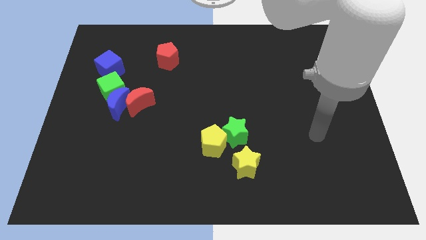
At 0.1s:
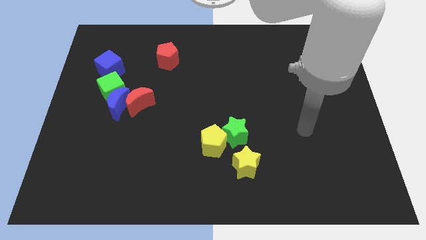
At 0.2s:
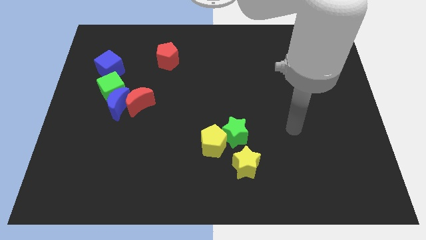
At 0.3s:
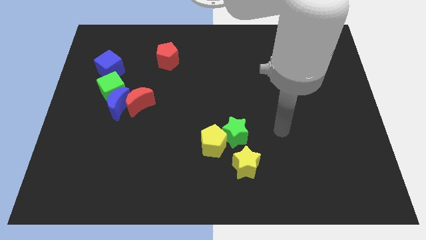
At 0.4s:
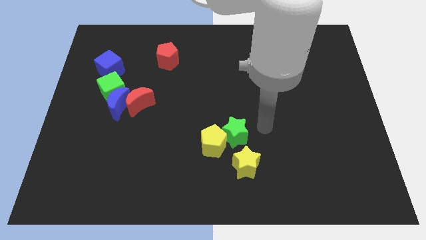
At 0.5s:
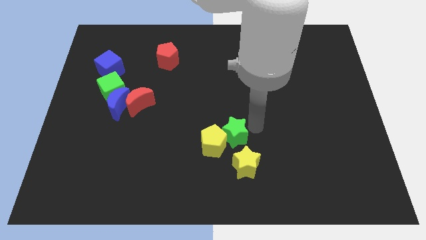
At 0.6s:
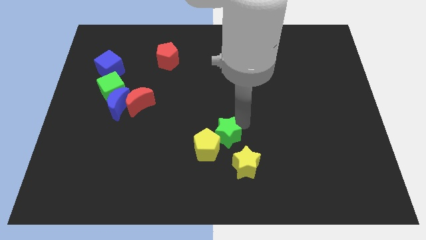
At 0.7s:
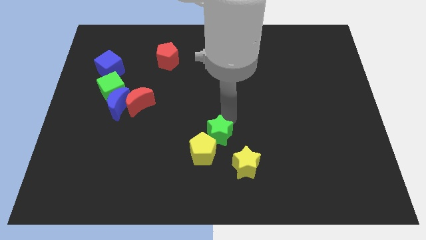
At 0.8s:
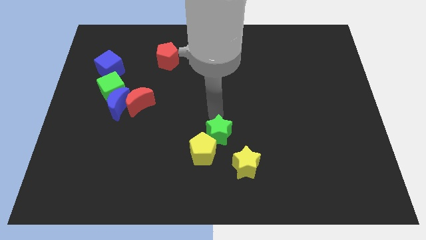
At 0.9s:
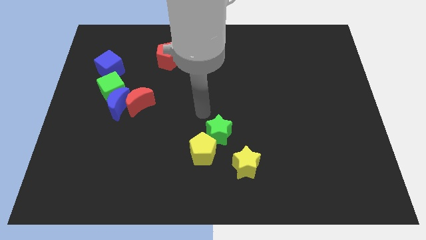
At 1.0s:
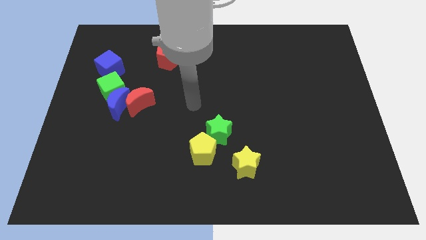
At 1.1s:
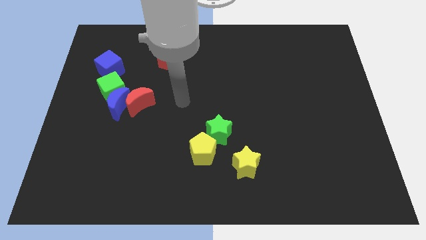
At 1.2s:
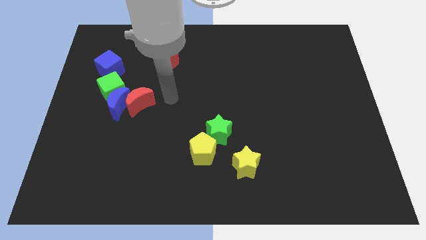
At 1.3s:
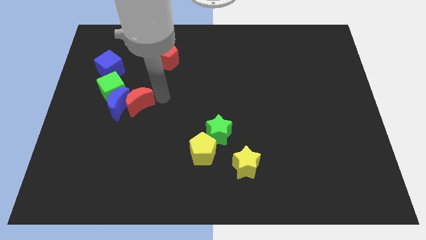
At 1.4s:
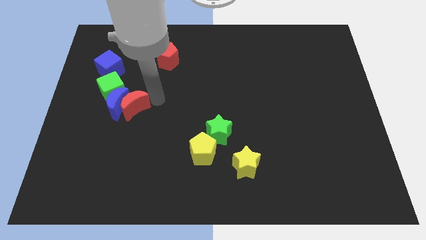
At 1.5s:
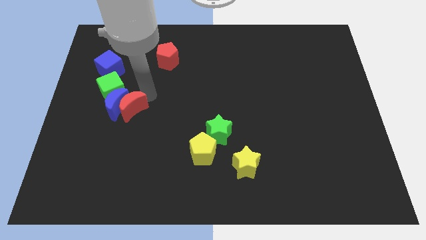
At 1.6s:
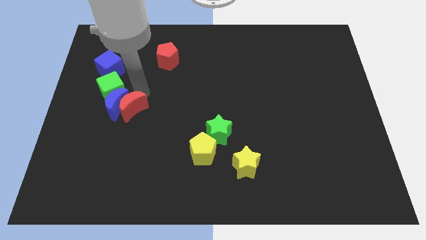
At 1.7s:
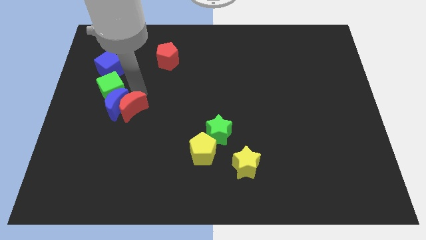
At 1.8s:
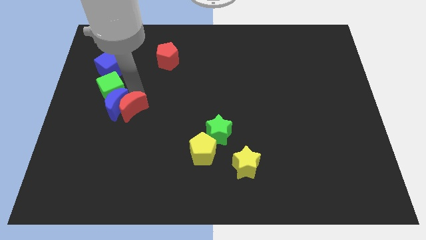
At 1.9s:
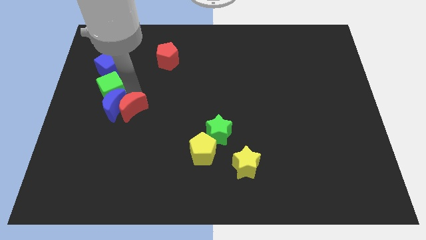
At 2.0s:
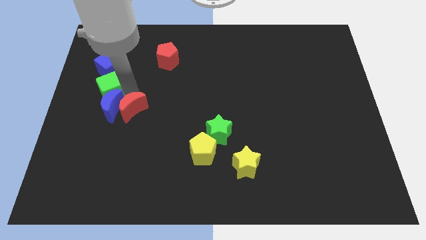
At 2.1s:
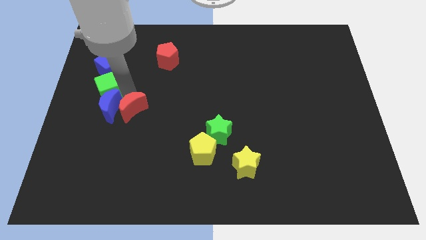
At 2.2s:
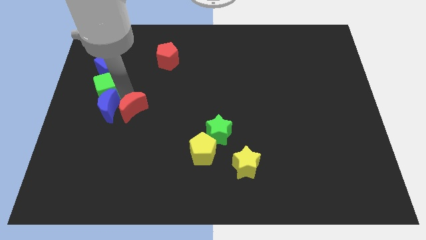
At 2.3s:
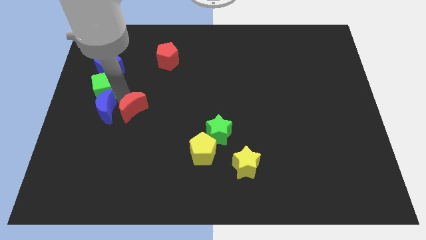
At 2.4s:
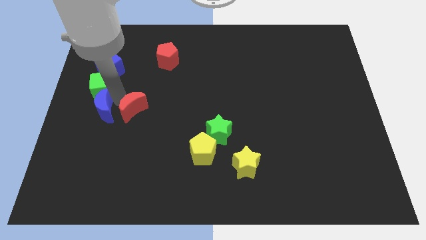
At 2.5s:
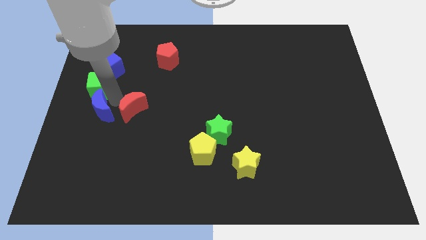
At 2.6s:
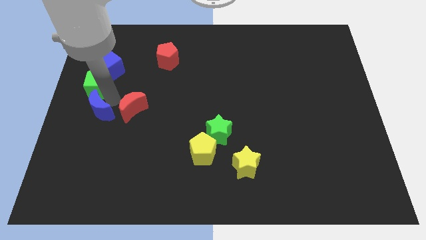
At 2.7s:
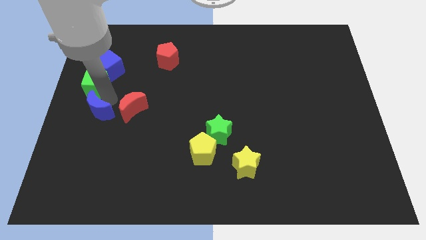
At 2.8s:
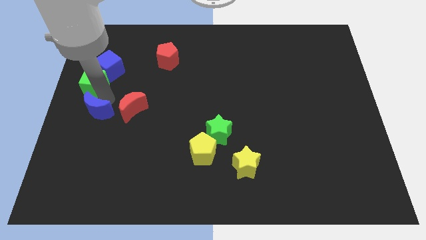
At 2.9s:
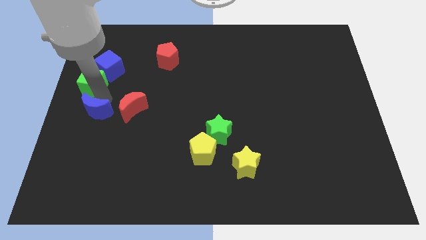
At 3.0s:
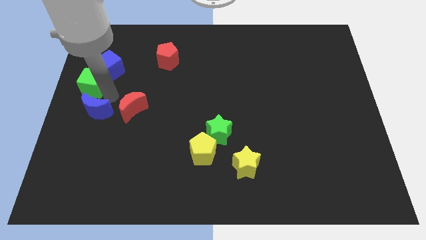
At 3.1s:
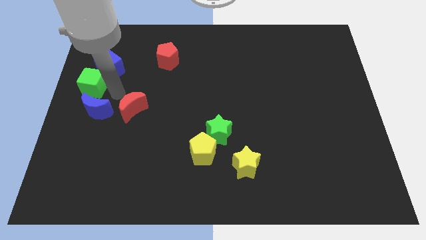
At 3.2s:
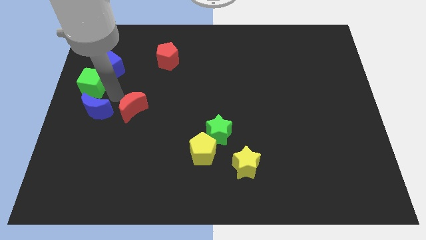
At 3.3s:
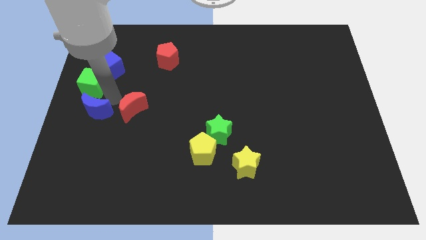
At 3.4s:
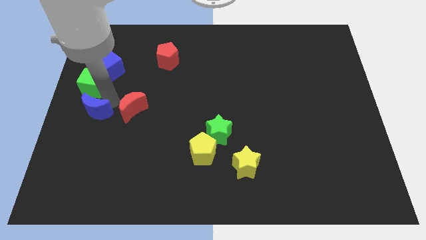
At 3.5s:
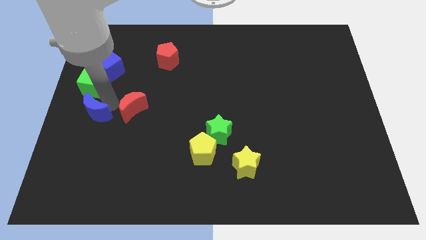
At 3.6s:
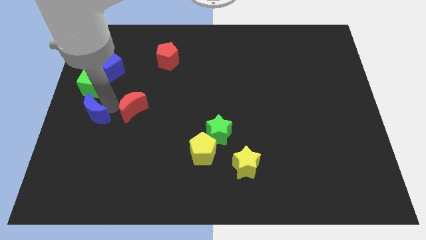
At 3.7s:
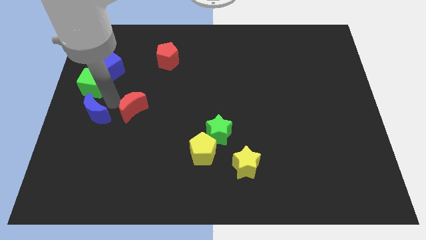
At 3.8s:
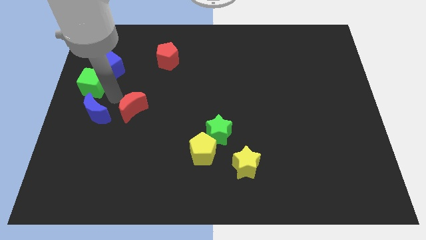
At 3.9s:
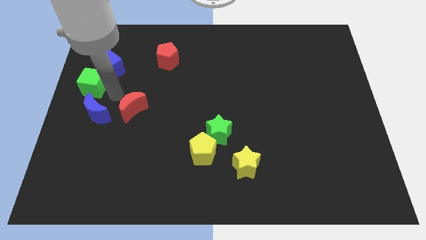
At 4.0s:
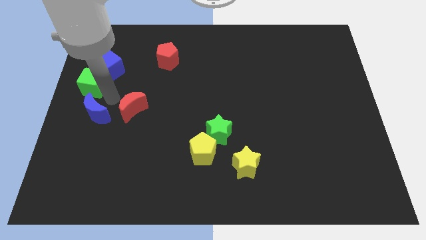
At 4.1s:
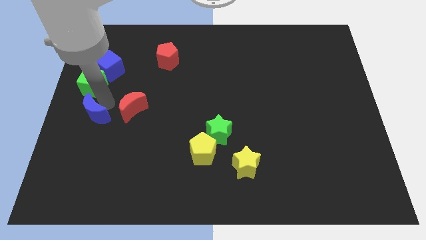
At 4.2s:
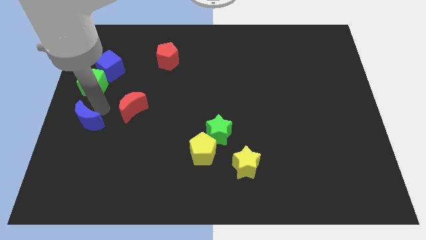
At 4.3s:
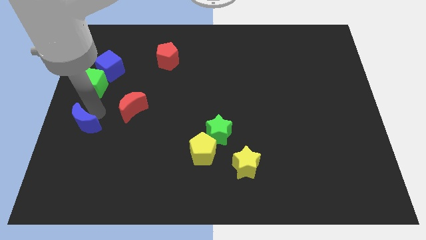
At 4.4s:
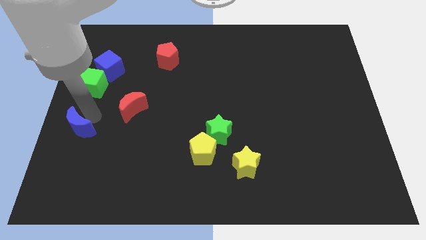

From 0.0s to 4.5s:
separate the blue moon from the green cube and red moon

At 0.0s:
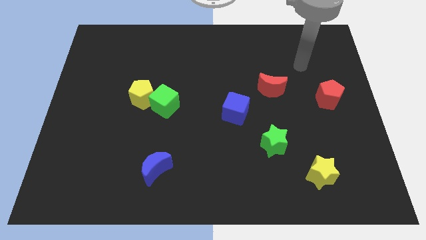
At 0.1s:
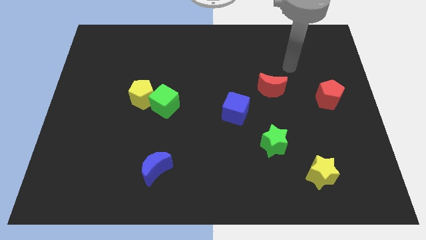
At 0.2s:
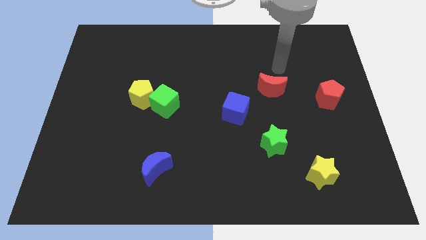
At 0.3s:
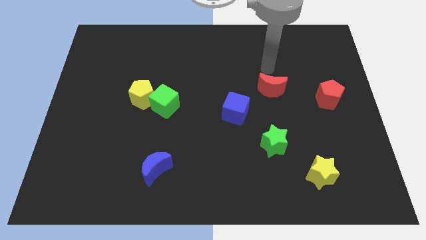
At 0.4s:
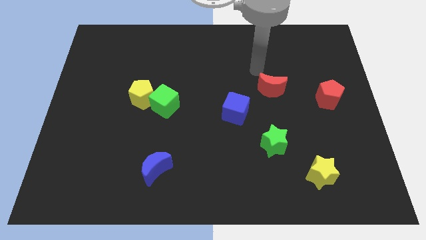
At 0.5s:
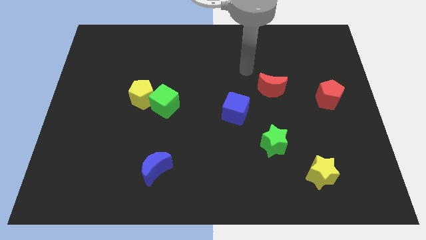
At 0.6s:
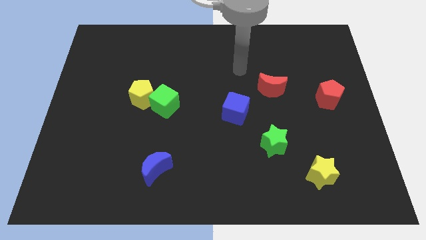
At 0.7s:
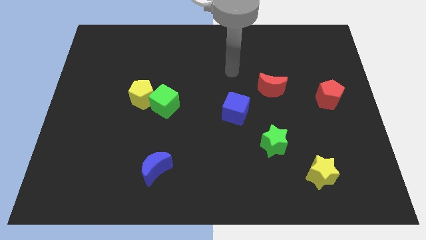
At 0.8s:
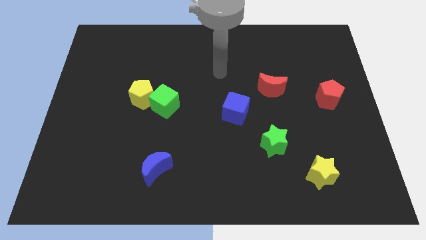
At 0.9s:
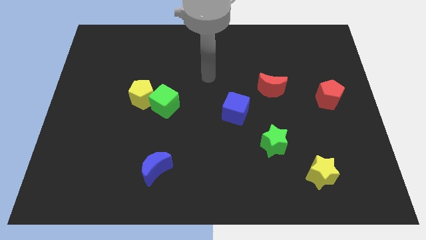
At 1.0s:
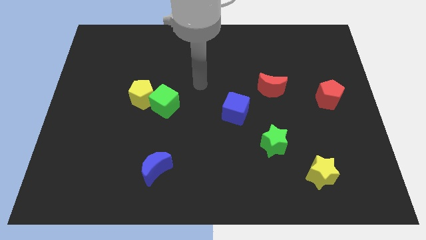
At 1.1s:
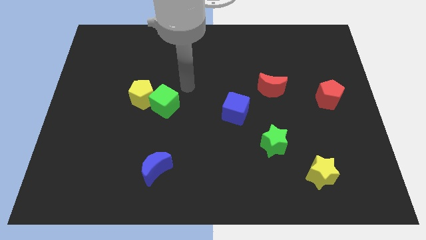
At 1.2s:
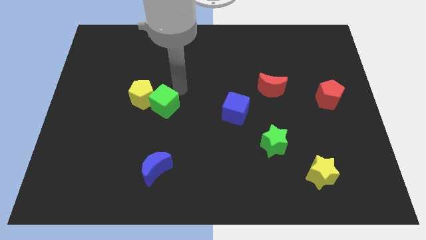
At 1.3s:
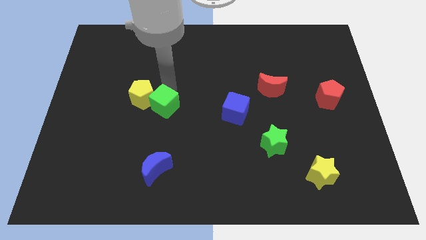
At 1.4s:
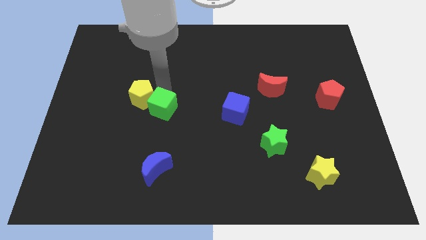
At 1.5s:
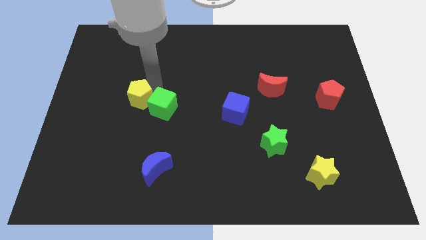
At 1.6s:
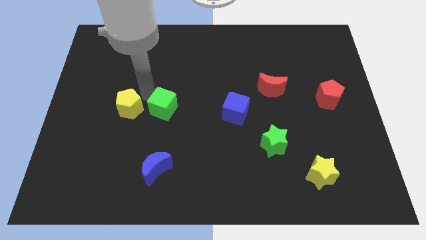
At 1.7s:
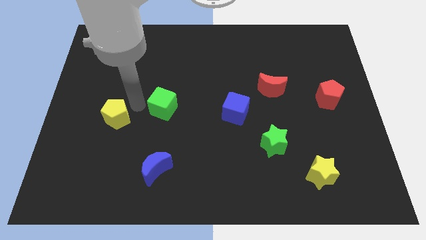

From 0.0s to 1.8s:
separate the green cube from the yellow pentagon

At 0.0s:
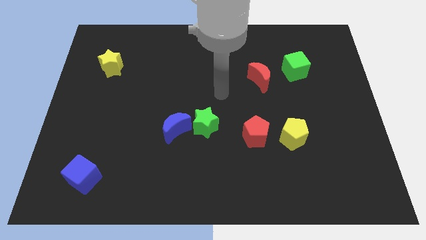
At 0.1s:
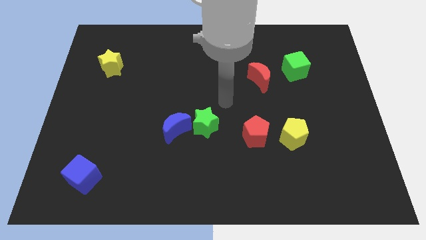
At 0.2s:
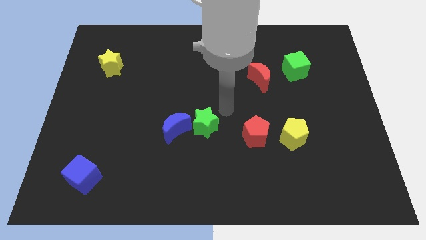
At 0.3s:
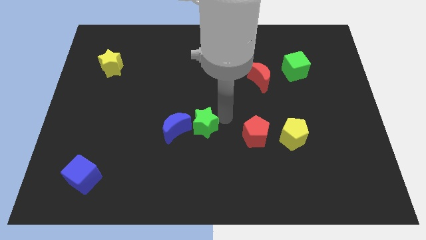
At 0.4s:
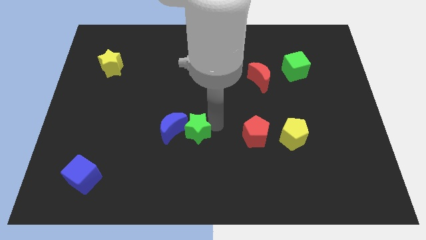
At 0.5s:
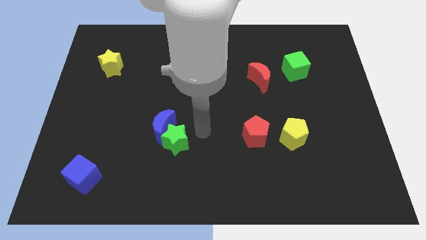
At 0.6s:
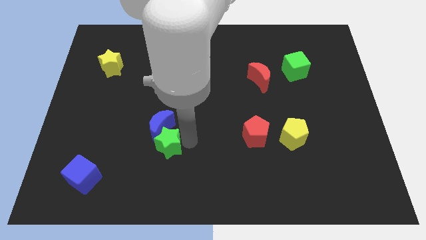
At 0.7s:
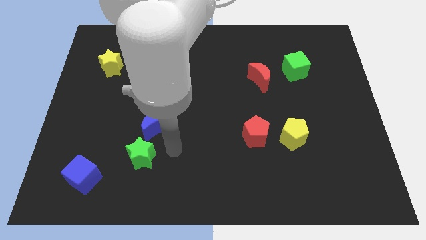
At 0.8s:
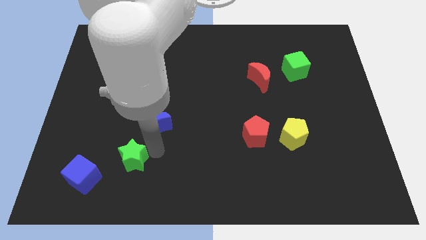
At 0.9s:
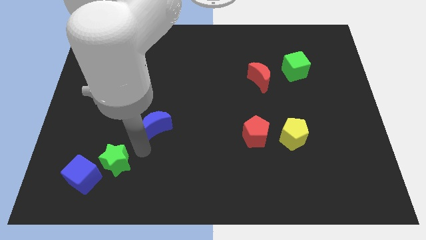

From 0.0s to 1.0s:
separate the blue moon from the green star

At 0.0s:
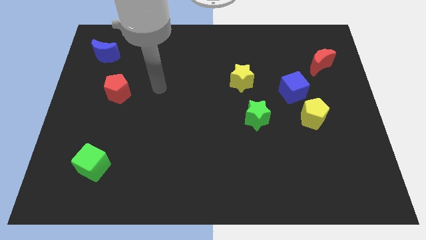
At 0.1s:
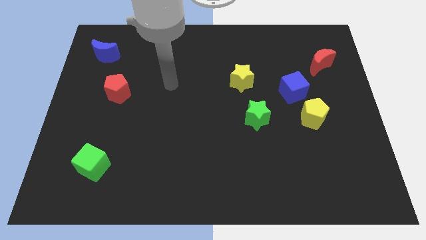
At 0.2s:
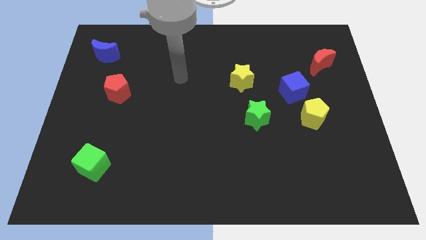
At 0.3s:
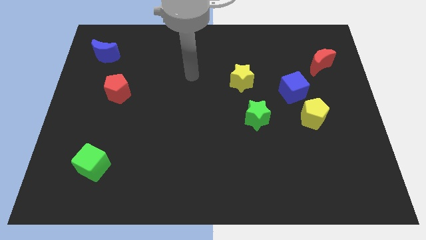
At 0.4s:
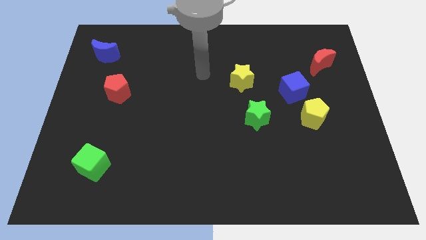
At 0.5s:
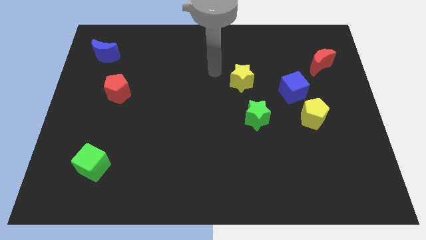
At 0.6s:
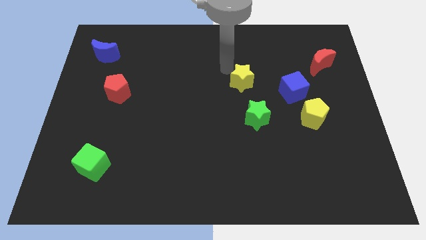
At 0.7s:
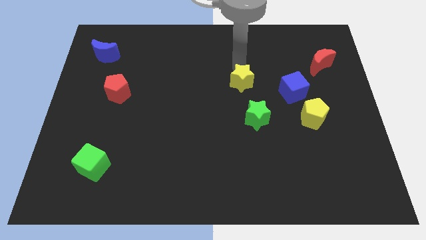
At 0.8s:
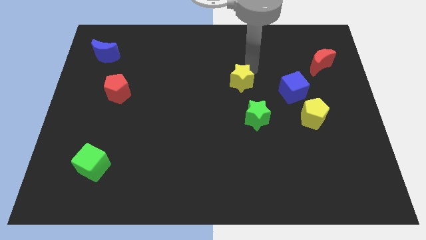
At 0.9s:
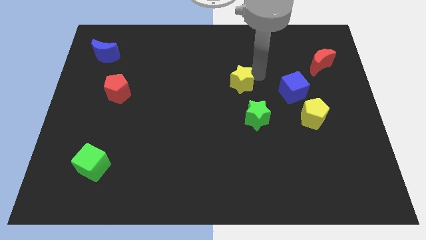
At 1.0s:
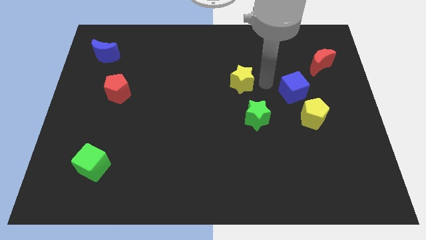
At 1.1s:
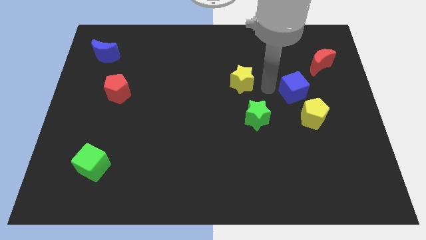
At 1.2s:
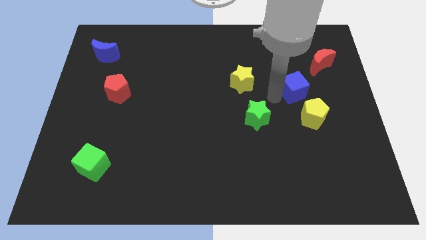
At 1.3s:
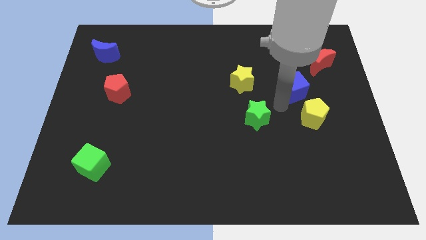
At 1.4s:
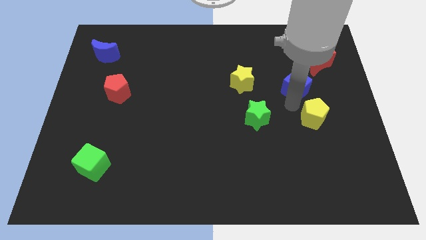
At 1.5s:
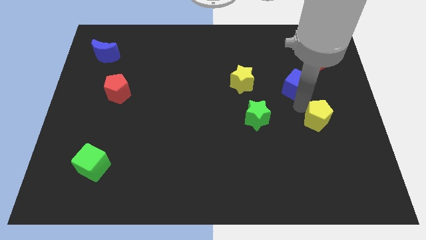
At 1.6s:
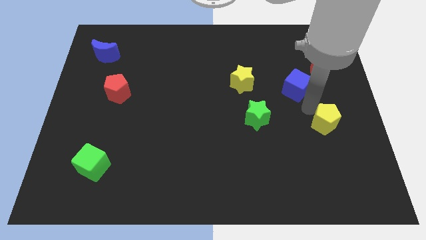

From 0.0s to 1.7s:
move the blue cube away from the yellow pentagon

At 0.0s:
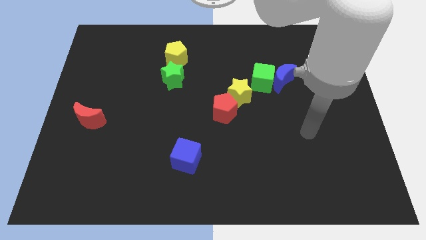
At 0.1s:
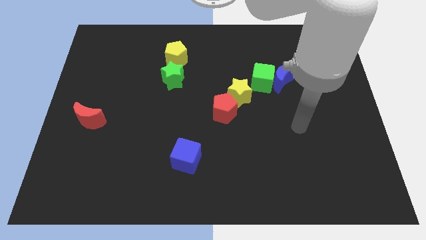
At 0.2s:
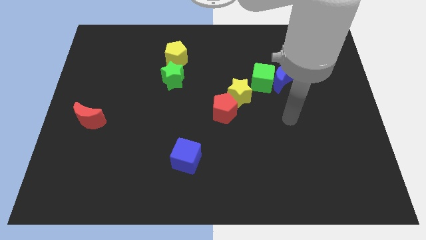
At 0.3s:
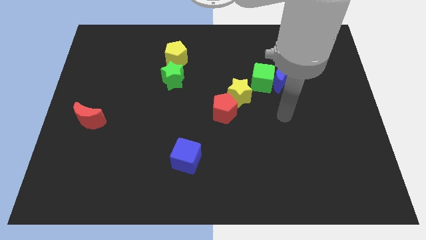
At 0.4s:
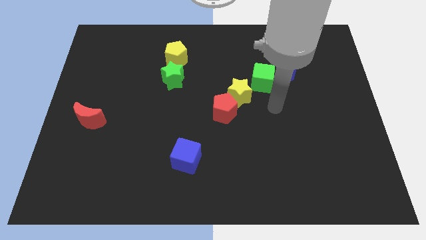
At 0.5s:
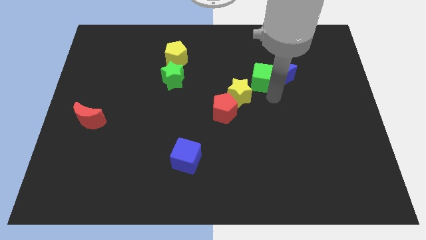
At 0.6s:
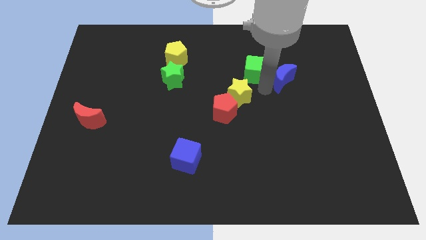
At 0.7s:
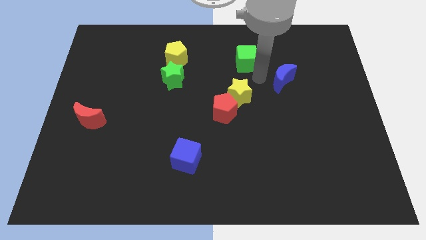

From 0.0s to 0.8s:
separate the blue moon from the green cube
